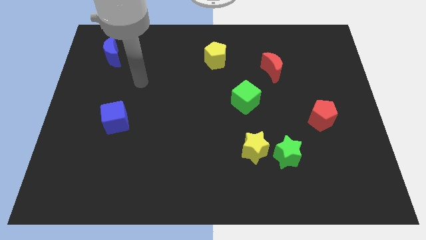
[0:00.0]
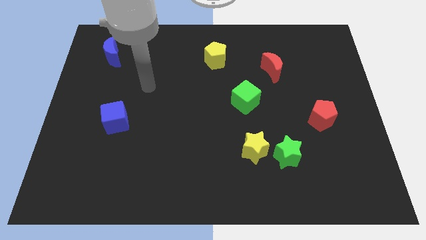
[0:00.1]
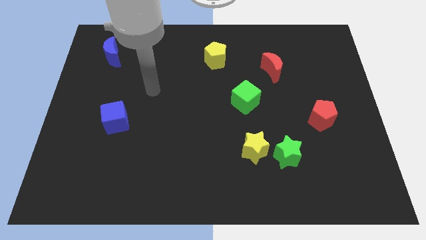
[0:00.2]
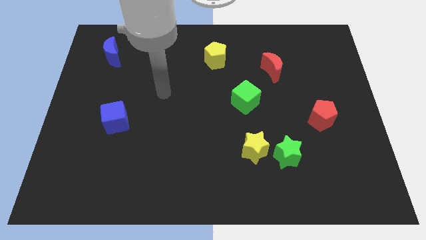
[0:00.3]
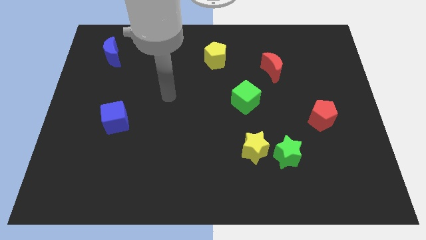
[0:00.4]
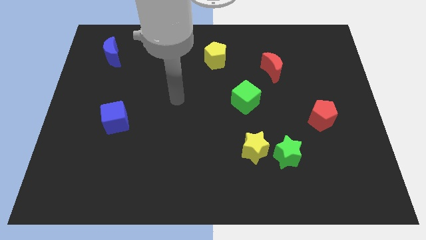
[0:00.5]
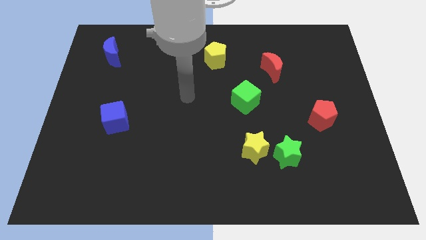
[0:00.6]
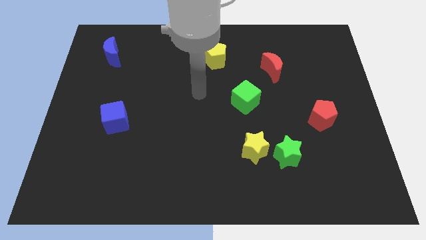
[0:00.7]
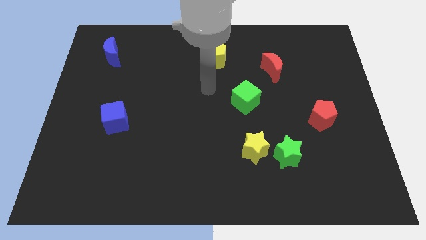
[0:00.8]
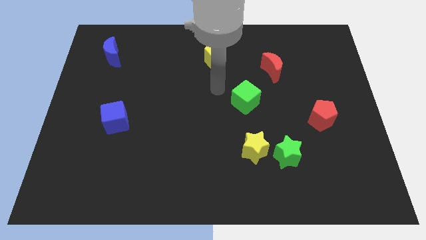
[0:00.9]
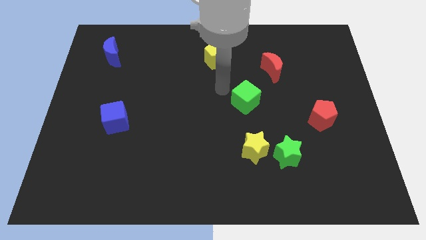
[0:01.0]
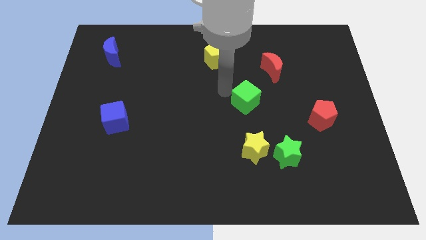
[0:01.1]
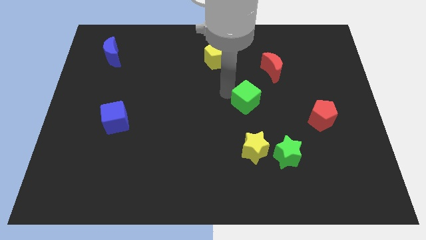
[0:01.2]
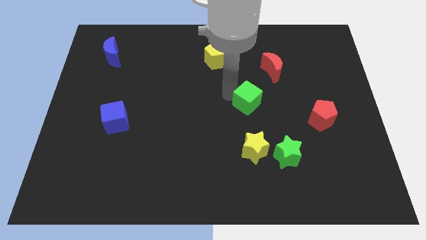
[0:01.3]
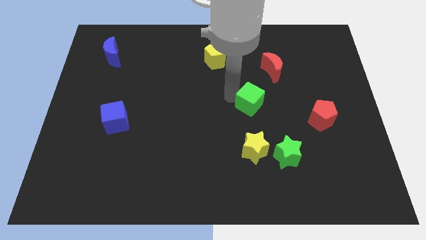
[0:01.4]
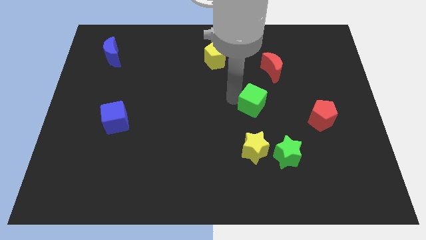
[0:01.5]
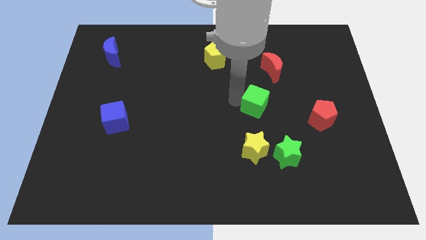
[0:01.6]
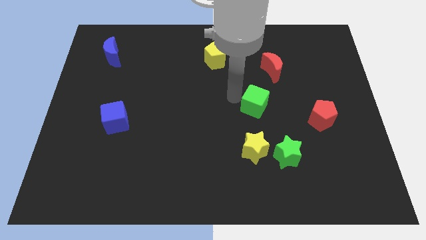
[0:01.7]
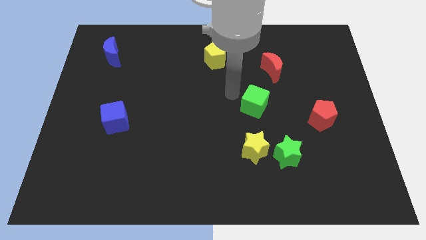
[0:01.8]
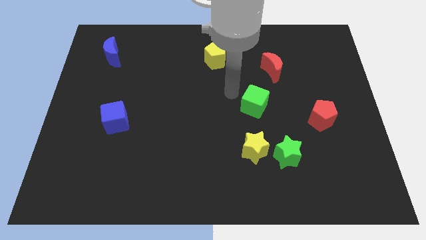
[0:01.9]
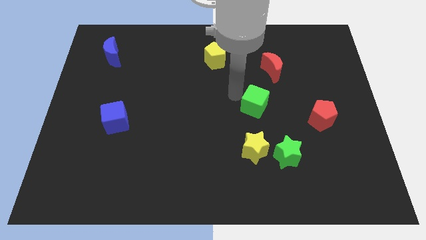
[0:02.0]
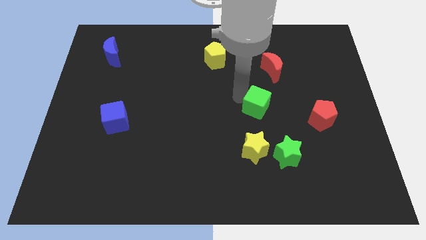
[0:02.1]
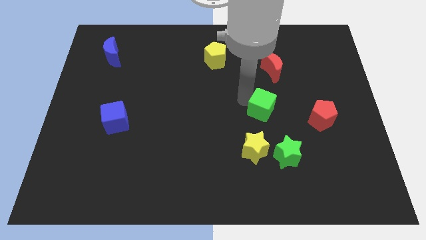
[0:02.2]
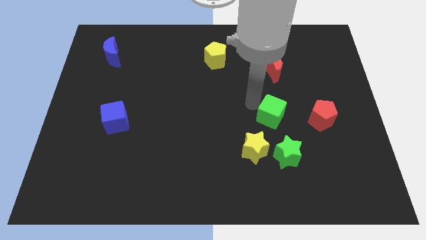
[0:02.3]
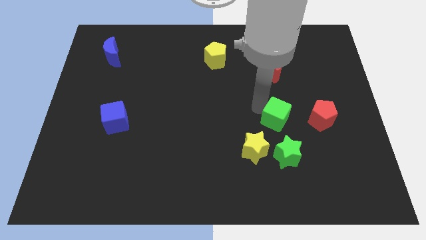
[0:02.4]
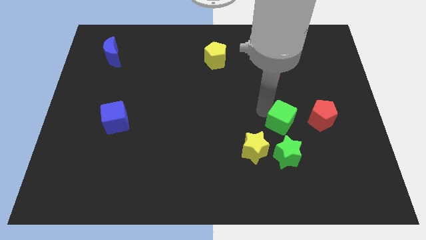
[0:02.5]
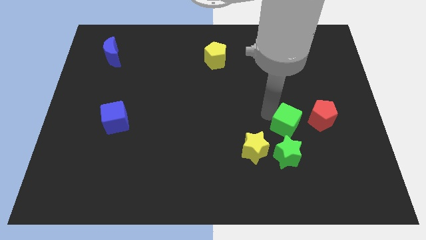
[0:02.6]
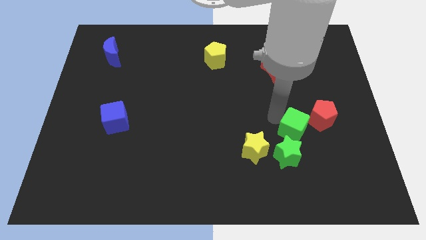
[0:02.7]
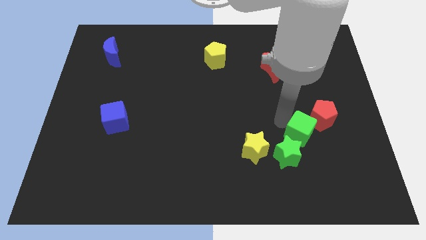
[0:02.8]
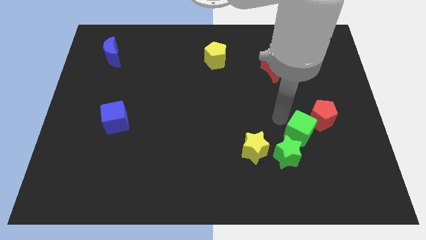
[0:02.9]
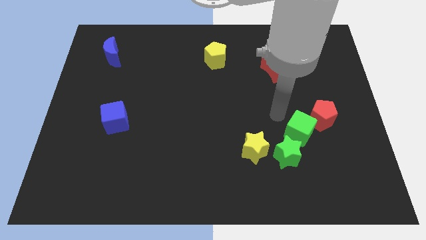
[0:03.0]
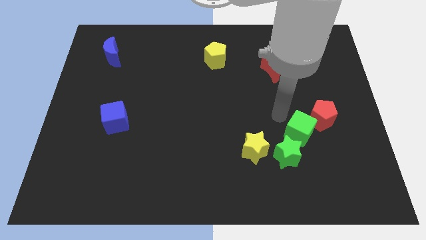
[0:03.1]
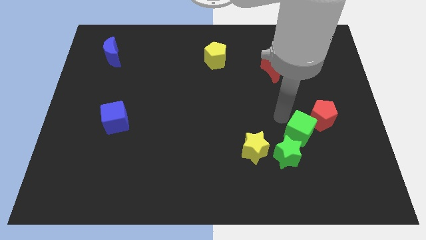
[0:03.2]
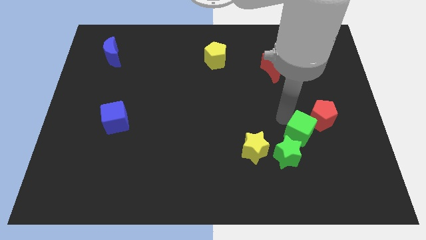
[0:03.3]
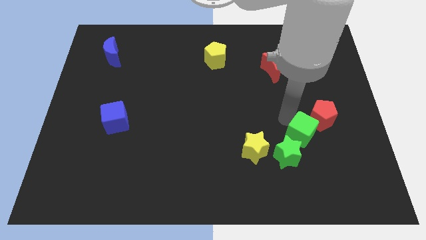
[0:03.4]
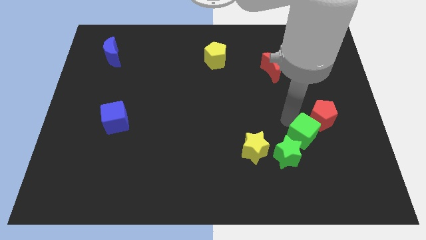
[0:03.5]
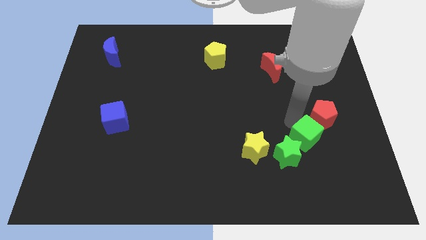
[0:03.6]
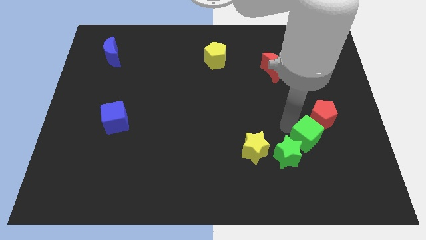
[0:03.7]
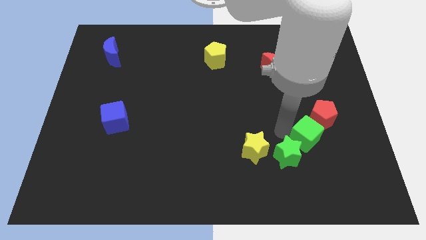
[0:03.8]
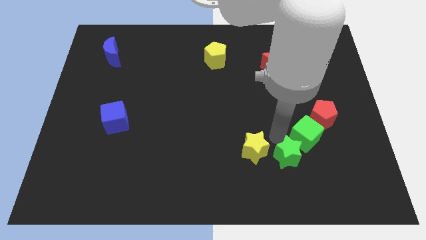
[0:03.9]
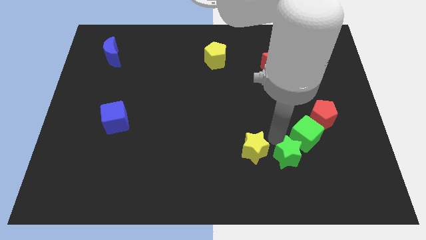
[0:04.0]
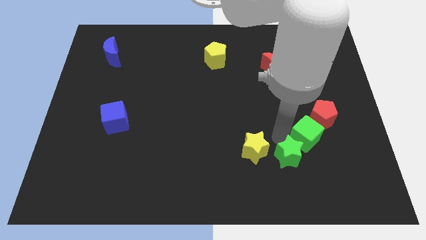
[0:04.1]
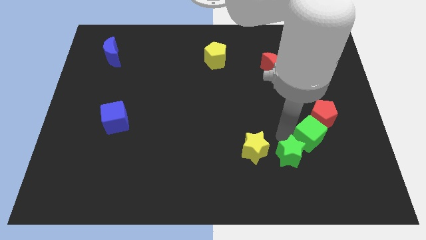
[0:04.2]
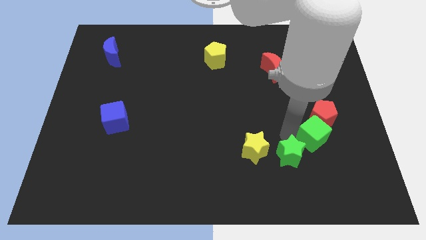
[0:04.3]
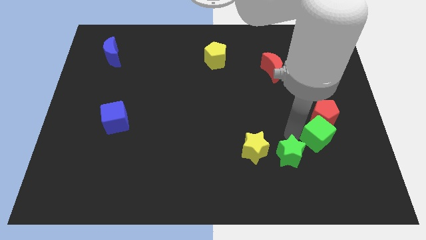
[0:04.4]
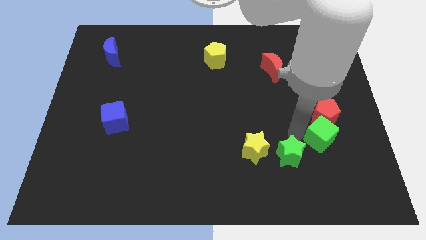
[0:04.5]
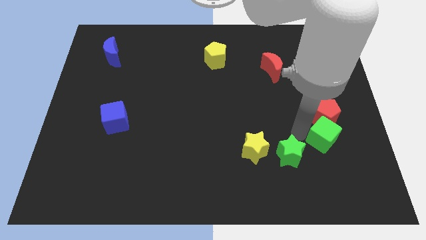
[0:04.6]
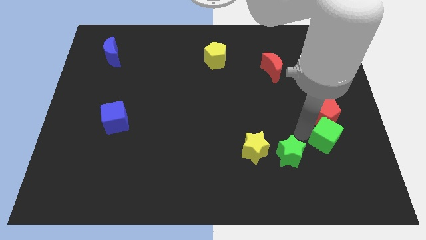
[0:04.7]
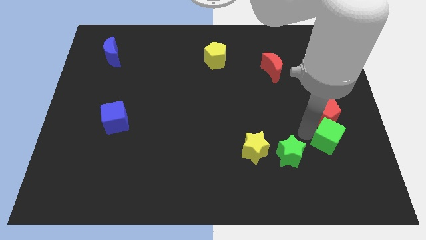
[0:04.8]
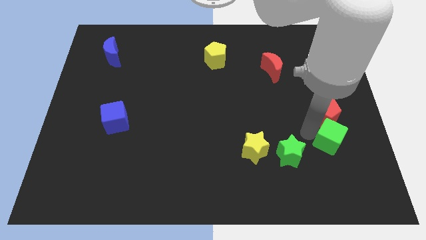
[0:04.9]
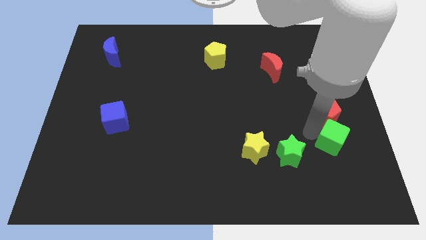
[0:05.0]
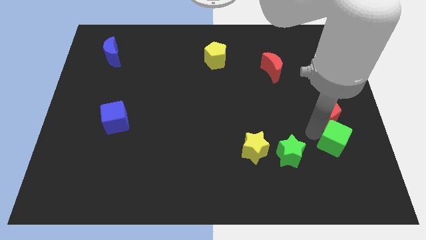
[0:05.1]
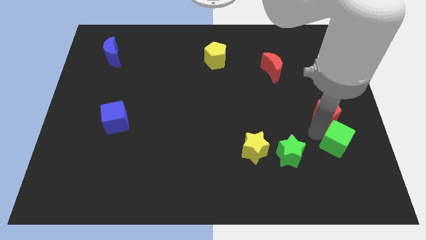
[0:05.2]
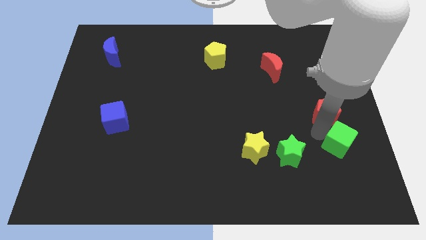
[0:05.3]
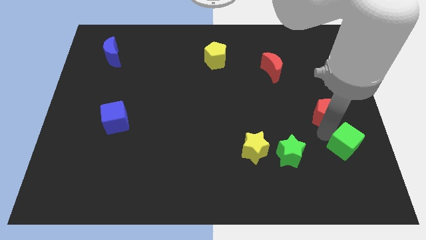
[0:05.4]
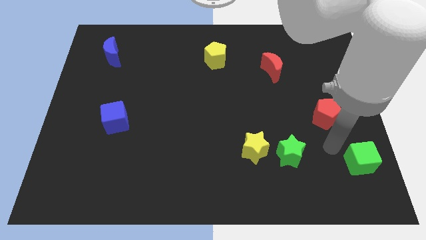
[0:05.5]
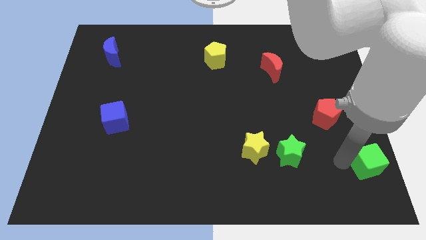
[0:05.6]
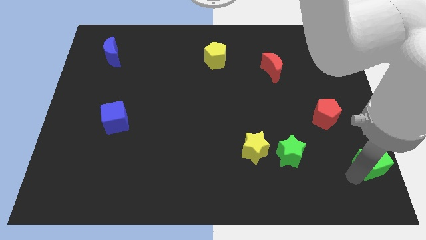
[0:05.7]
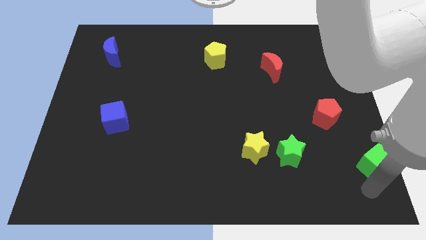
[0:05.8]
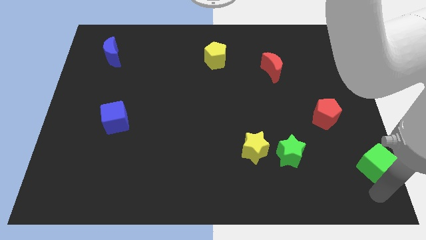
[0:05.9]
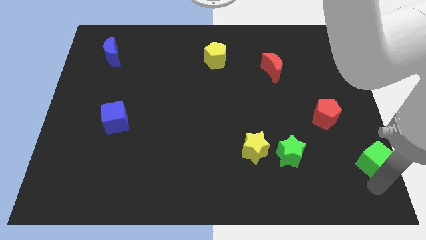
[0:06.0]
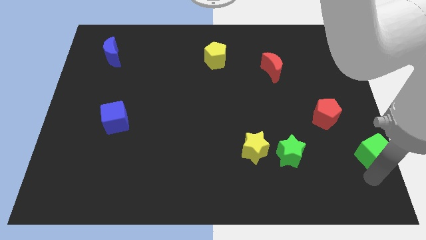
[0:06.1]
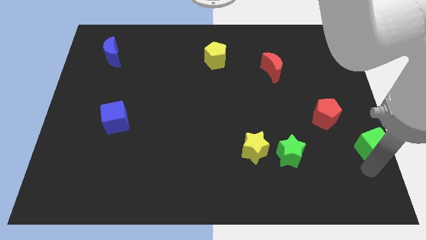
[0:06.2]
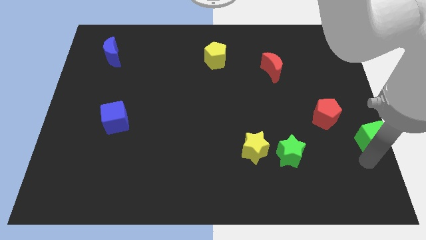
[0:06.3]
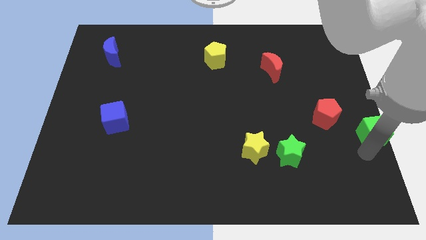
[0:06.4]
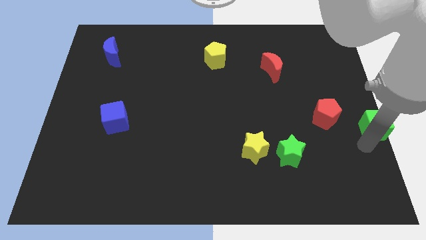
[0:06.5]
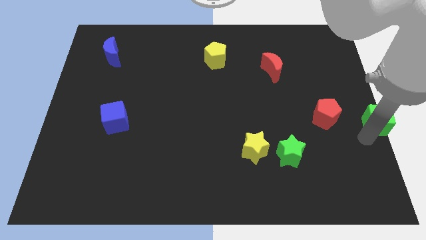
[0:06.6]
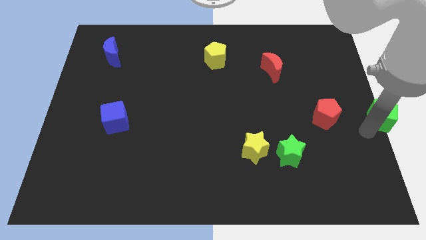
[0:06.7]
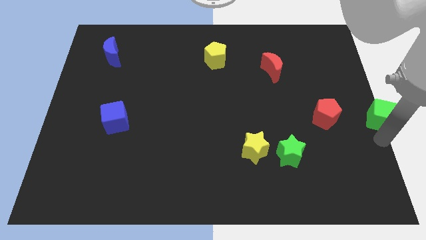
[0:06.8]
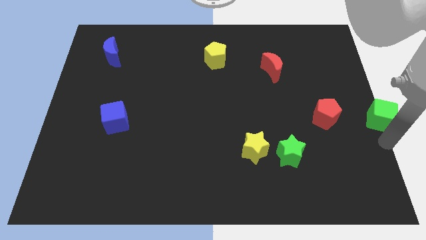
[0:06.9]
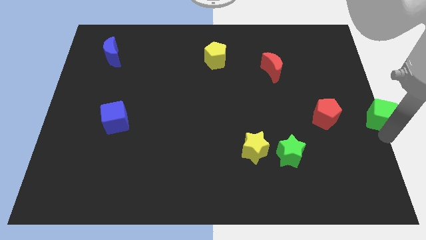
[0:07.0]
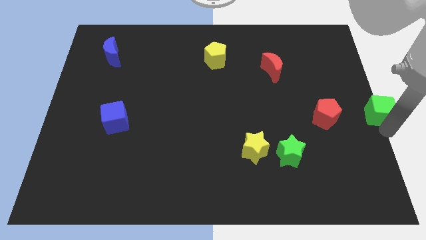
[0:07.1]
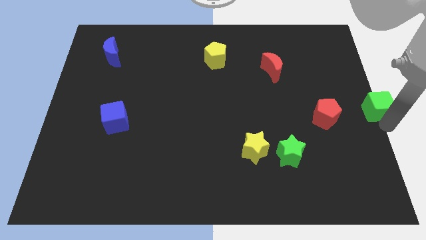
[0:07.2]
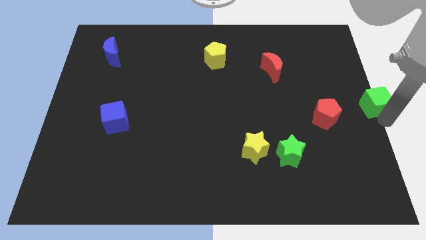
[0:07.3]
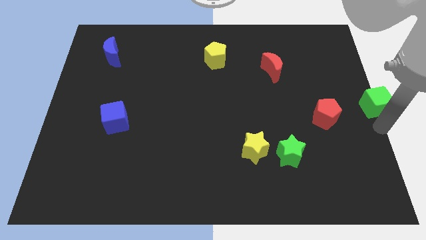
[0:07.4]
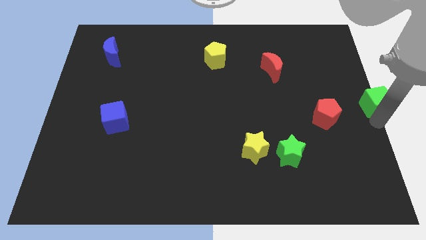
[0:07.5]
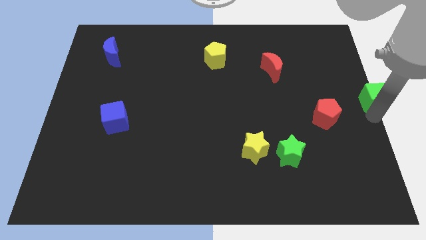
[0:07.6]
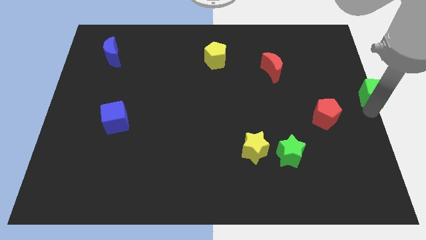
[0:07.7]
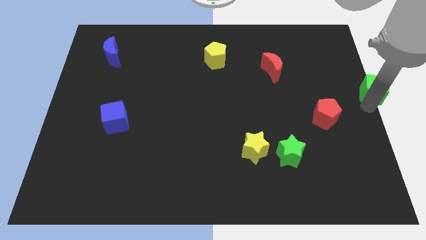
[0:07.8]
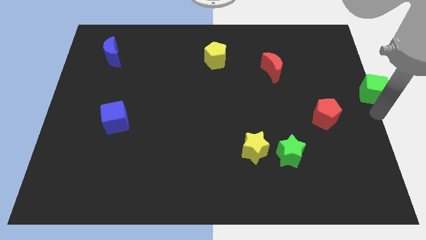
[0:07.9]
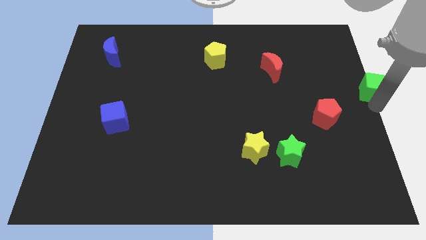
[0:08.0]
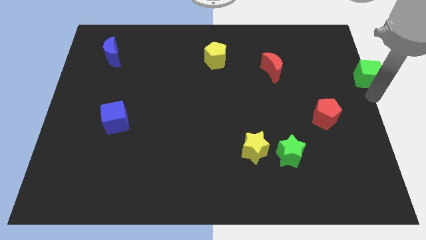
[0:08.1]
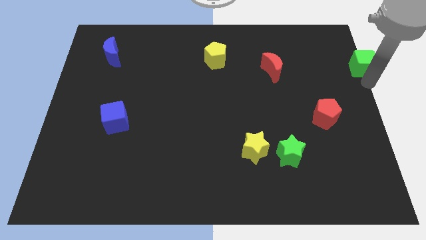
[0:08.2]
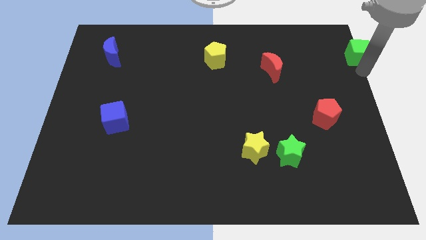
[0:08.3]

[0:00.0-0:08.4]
move the green cube to the top right of the board
